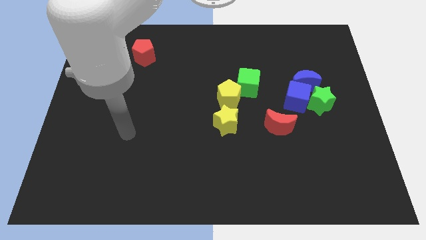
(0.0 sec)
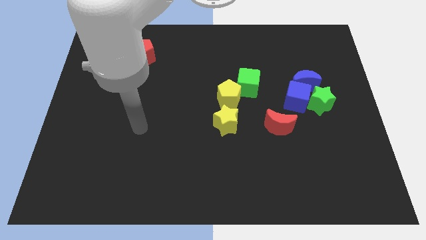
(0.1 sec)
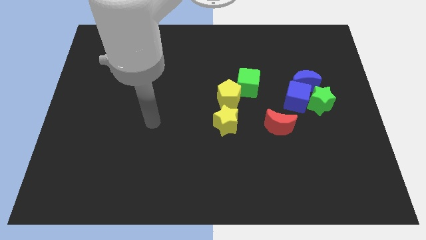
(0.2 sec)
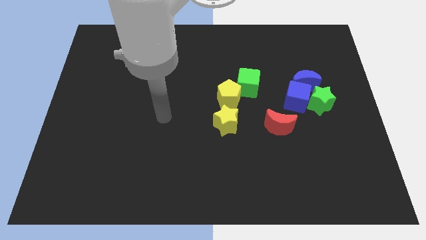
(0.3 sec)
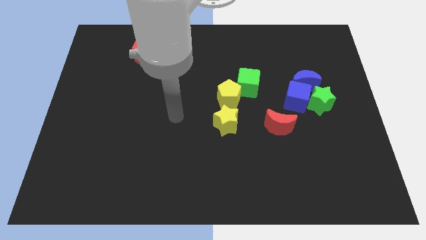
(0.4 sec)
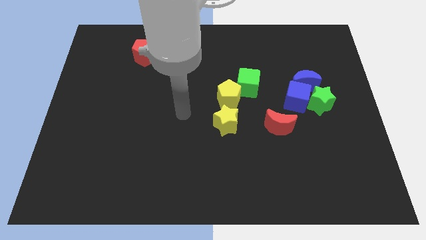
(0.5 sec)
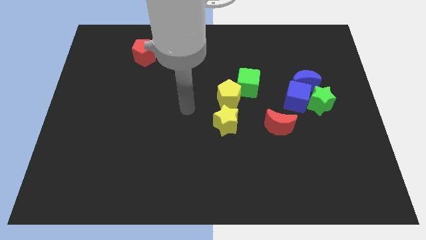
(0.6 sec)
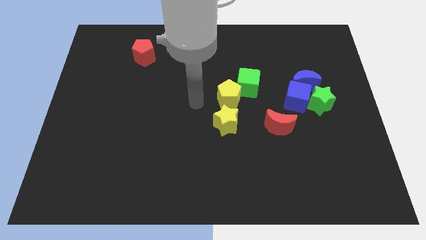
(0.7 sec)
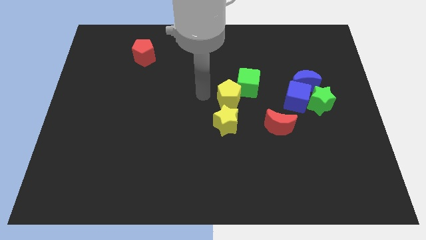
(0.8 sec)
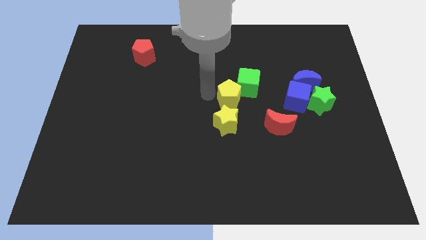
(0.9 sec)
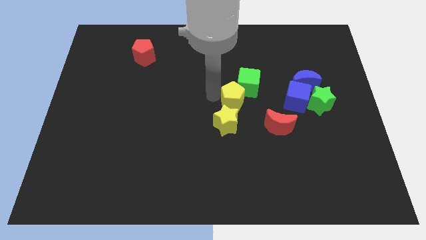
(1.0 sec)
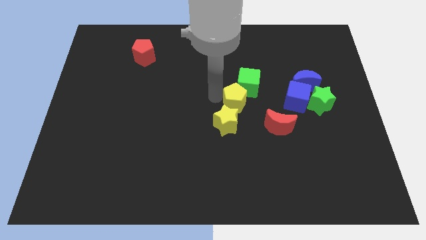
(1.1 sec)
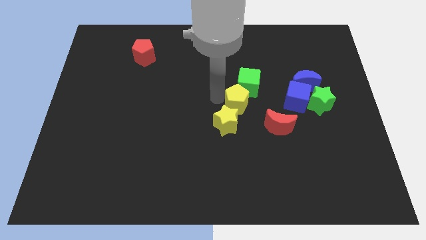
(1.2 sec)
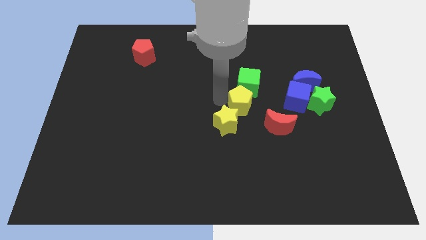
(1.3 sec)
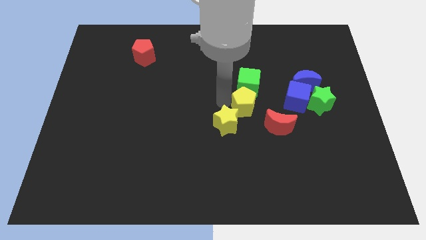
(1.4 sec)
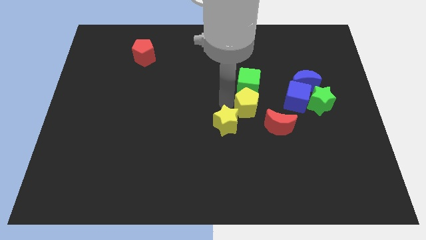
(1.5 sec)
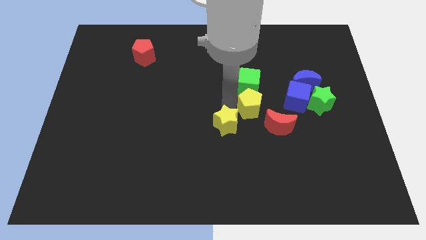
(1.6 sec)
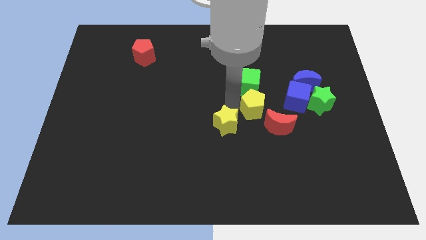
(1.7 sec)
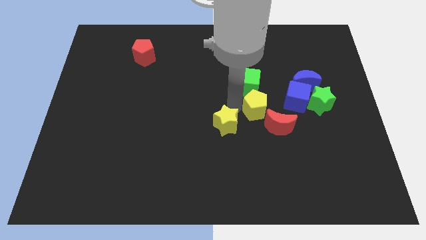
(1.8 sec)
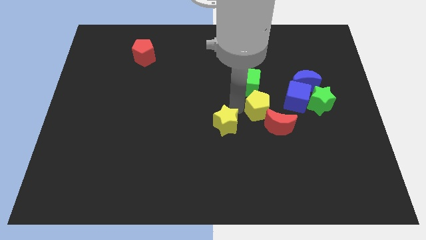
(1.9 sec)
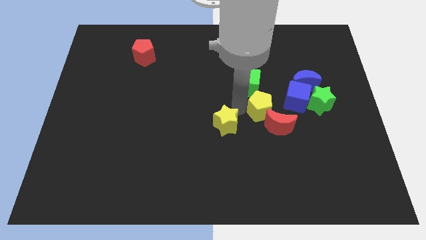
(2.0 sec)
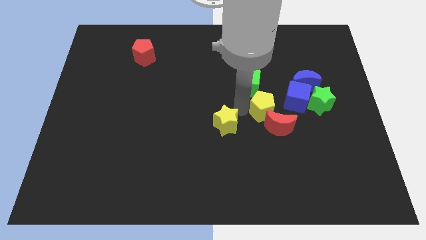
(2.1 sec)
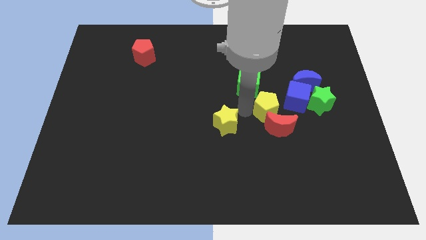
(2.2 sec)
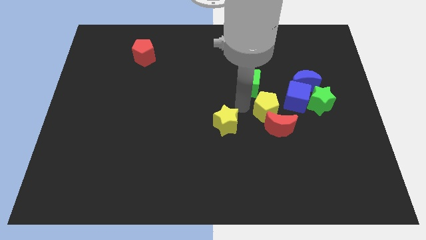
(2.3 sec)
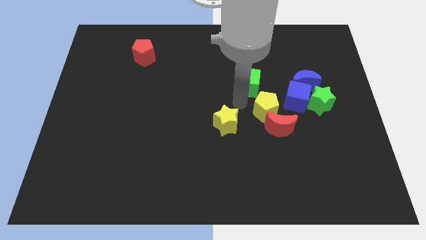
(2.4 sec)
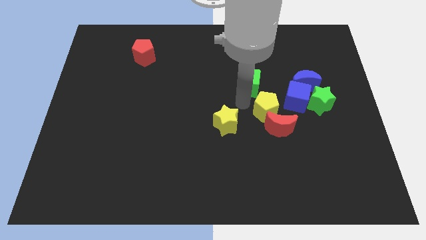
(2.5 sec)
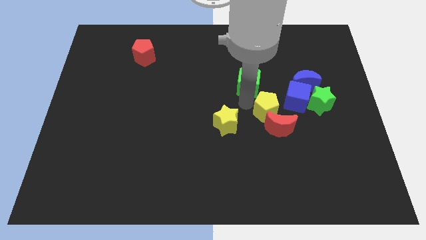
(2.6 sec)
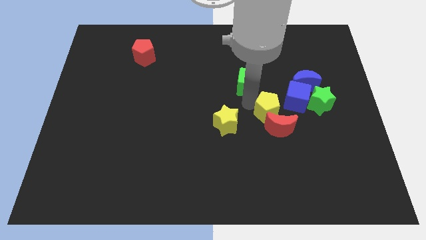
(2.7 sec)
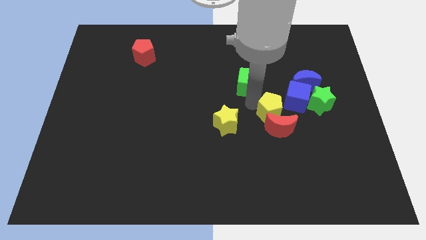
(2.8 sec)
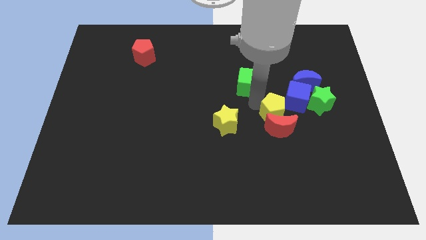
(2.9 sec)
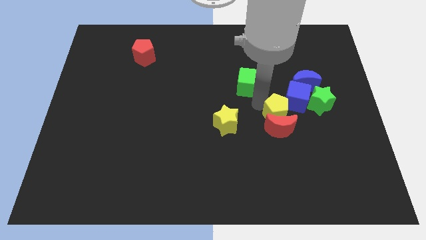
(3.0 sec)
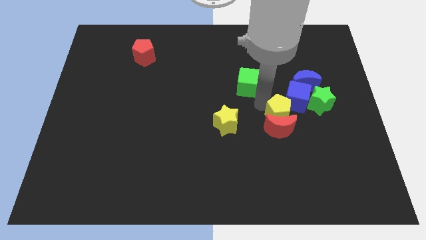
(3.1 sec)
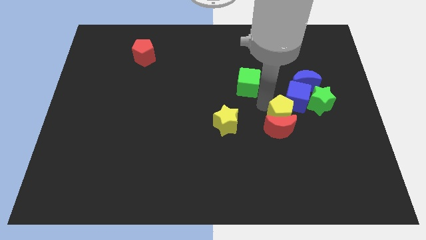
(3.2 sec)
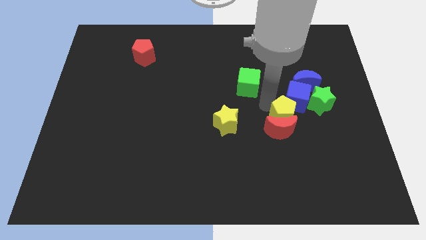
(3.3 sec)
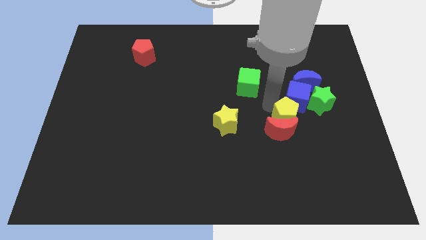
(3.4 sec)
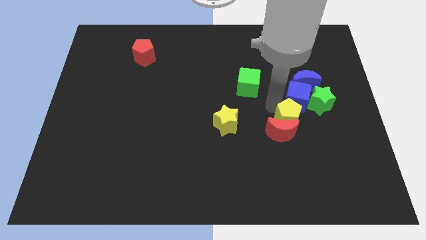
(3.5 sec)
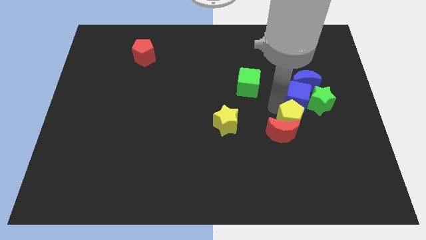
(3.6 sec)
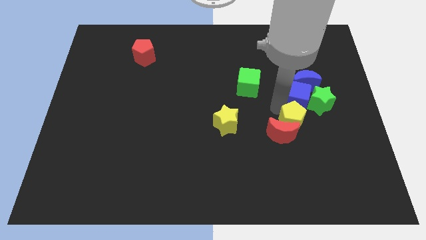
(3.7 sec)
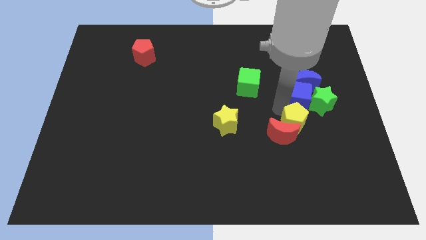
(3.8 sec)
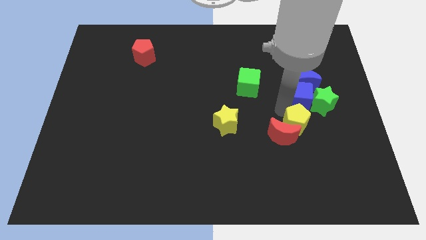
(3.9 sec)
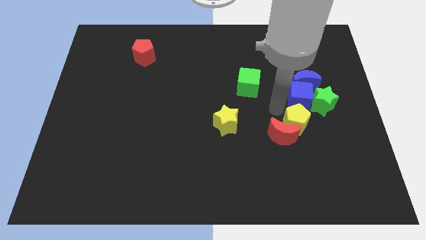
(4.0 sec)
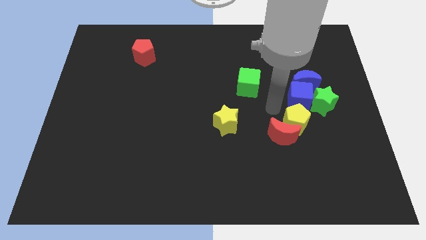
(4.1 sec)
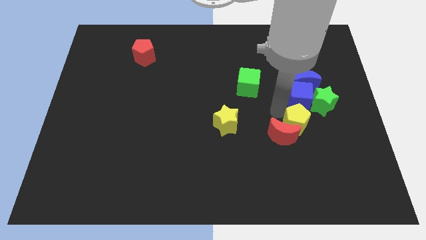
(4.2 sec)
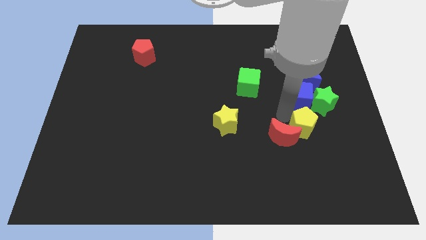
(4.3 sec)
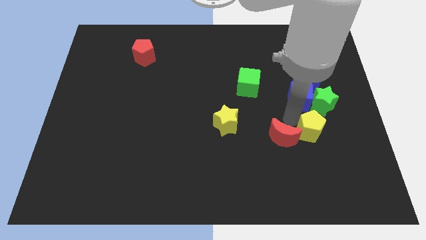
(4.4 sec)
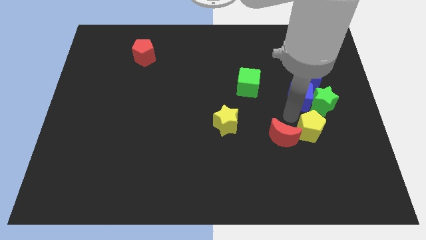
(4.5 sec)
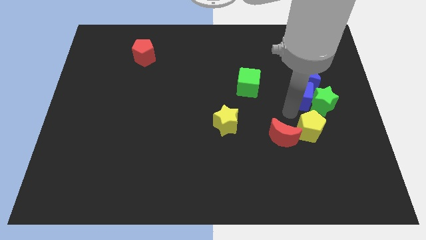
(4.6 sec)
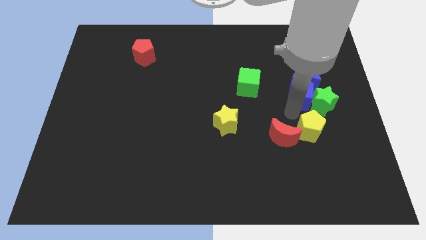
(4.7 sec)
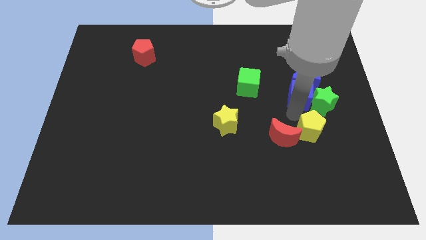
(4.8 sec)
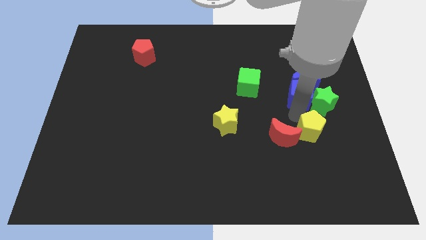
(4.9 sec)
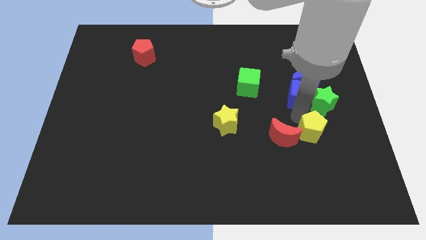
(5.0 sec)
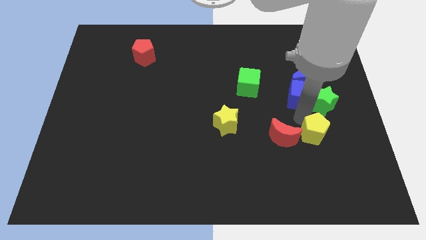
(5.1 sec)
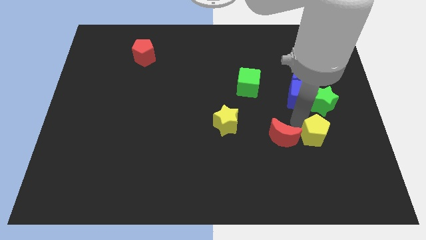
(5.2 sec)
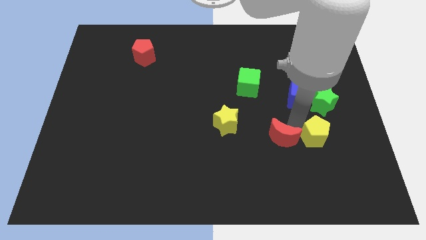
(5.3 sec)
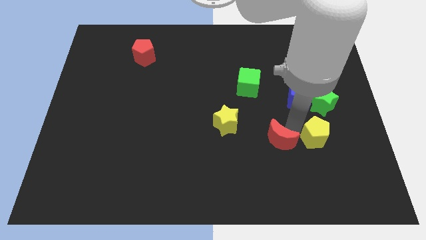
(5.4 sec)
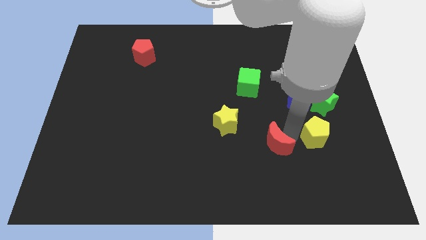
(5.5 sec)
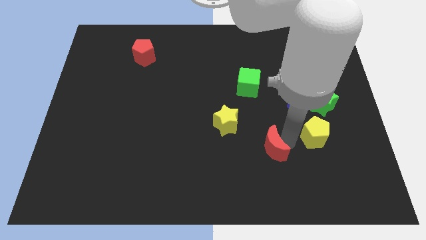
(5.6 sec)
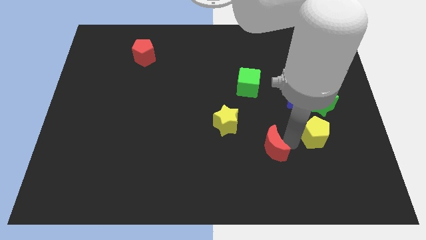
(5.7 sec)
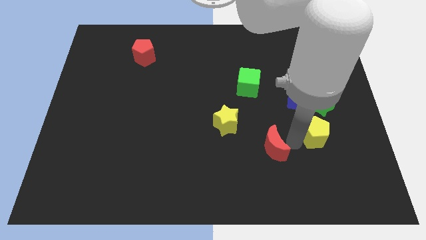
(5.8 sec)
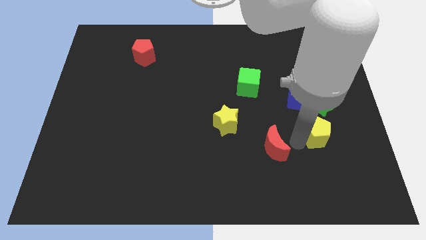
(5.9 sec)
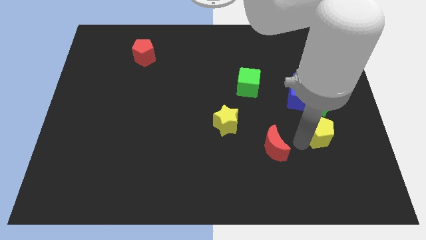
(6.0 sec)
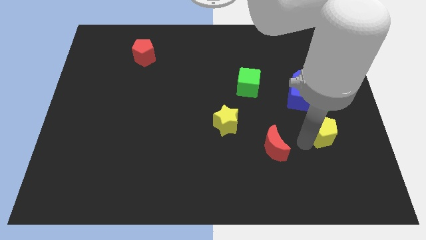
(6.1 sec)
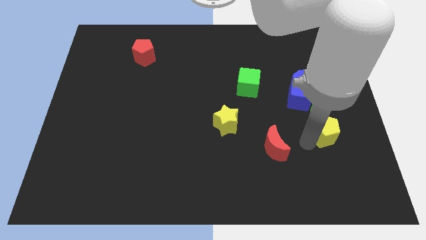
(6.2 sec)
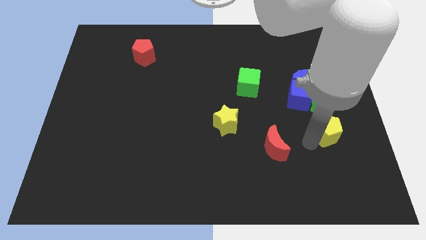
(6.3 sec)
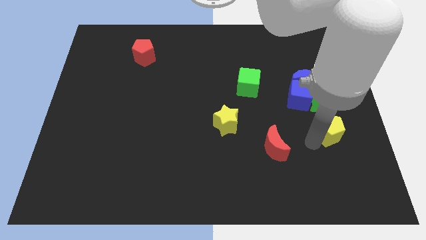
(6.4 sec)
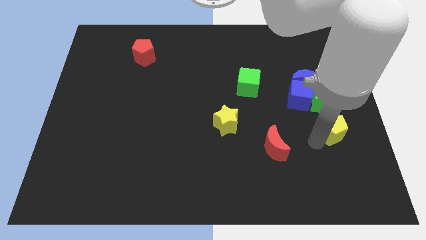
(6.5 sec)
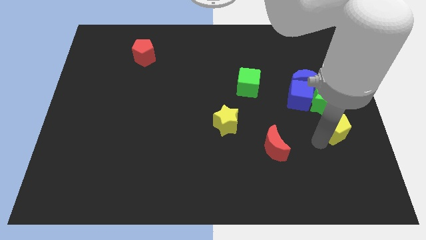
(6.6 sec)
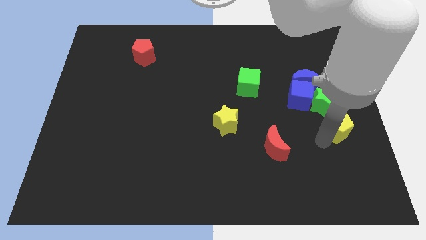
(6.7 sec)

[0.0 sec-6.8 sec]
push the yellow pentagon to the center right
